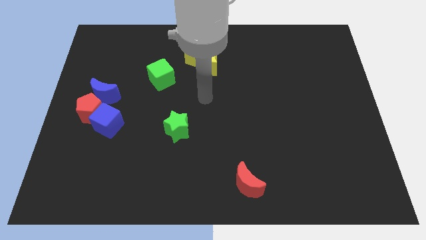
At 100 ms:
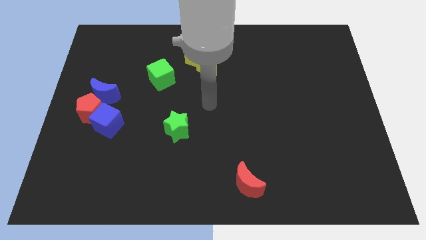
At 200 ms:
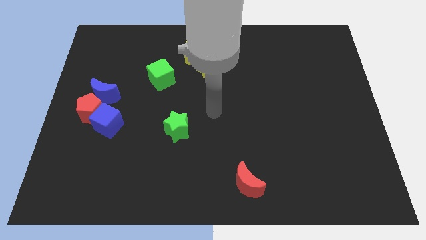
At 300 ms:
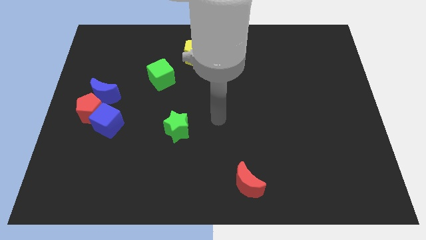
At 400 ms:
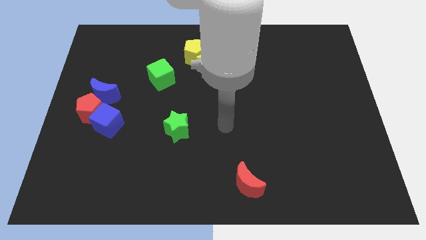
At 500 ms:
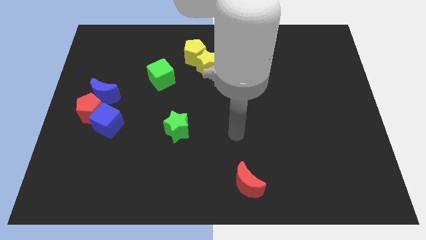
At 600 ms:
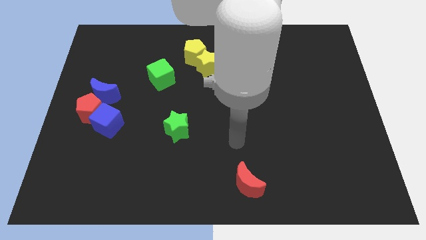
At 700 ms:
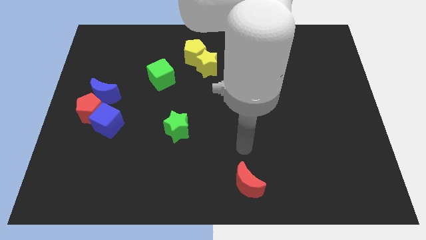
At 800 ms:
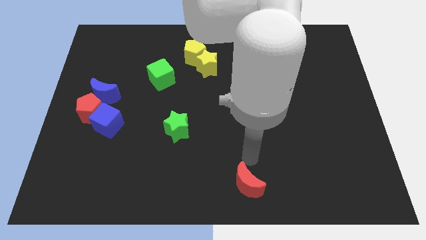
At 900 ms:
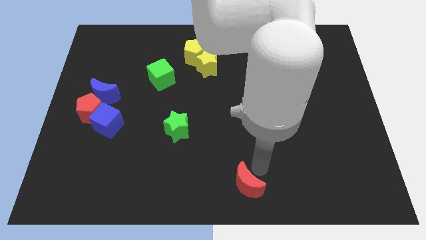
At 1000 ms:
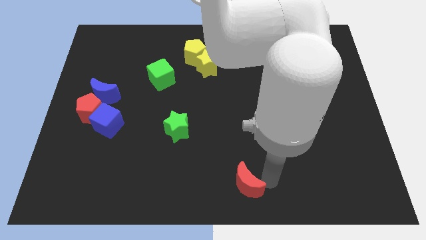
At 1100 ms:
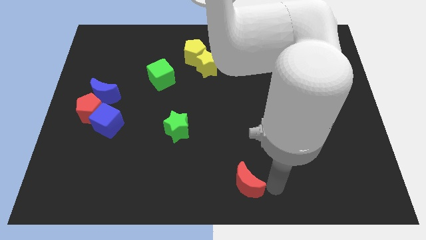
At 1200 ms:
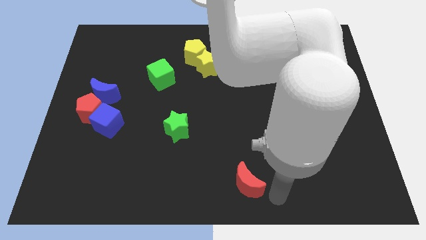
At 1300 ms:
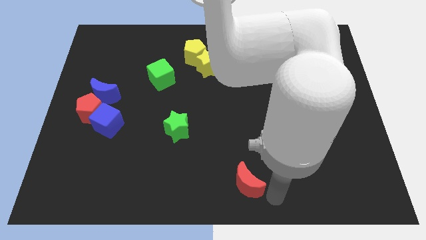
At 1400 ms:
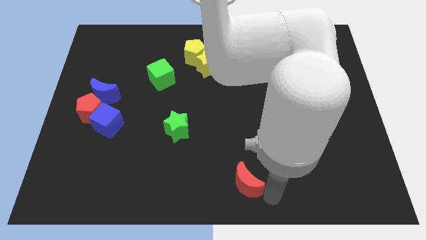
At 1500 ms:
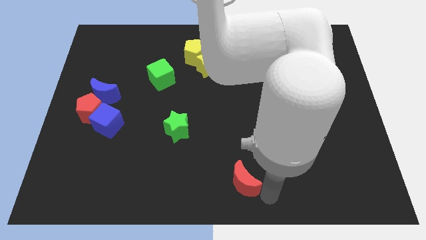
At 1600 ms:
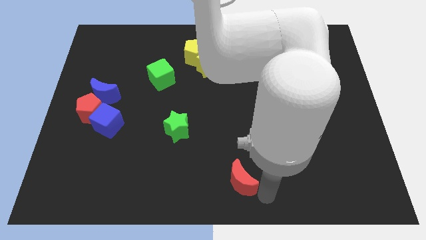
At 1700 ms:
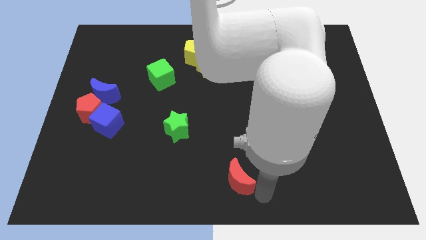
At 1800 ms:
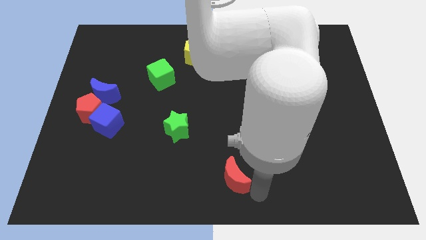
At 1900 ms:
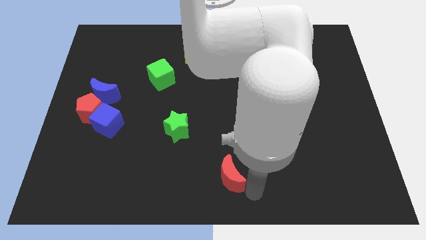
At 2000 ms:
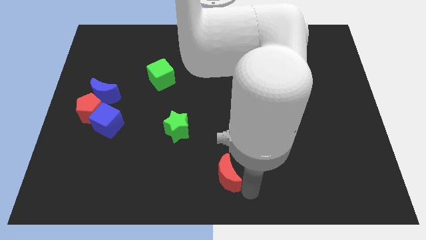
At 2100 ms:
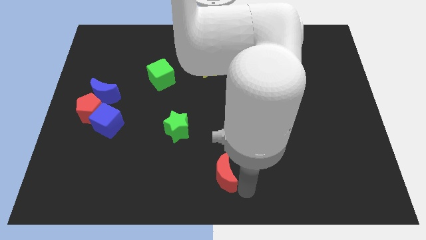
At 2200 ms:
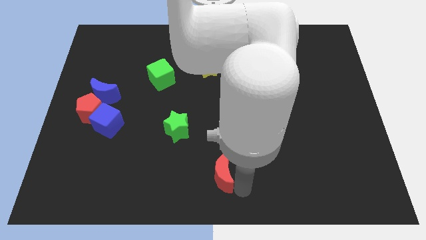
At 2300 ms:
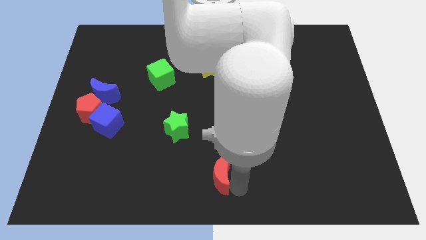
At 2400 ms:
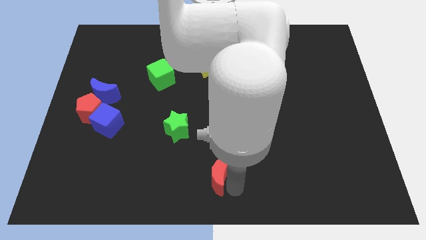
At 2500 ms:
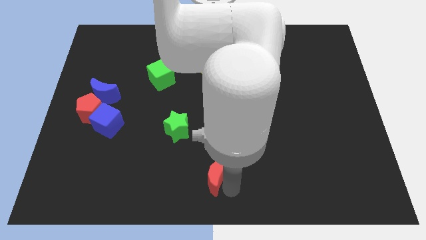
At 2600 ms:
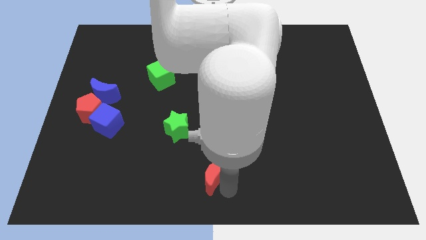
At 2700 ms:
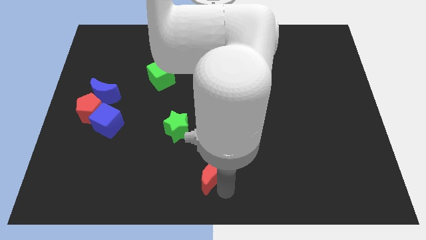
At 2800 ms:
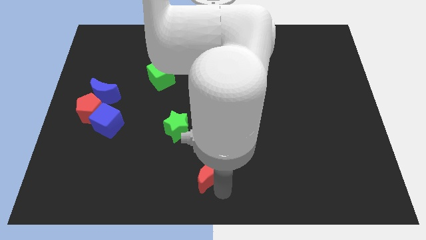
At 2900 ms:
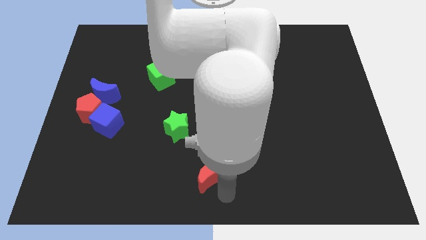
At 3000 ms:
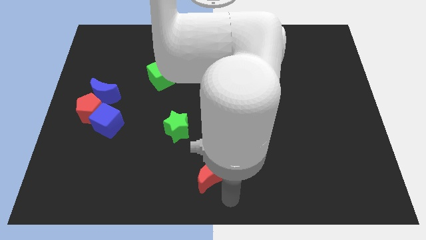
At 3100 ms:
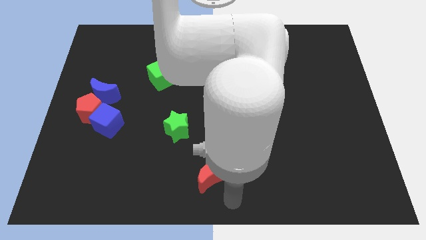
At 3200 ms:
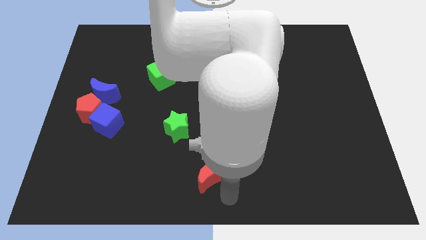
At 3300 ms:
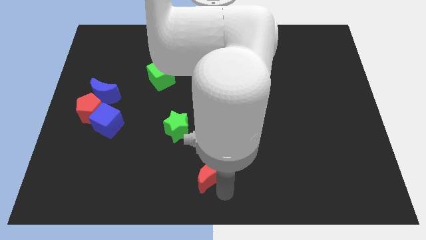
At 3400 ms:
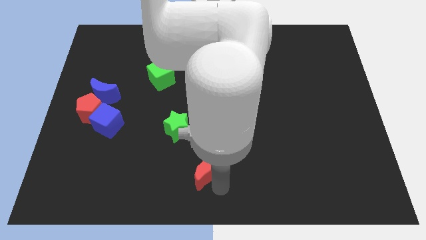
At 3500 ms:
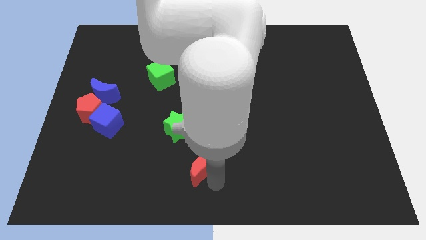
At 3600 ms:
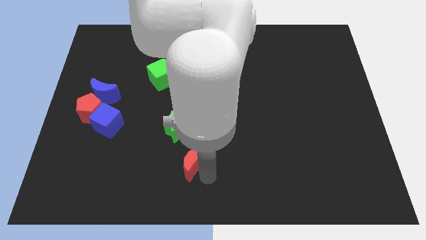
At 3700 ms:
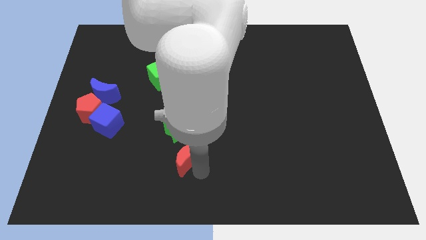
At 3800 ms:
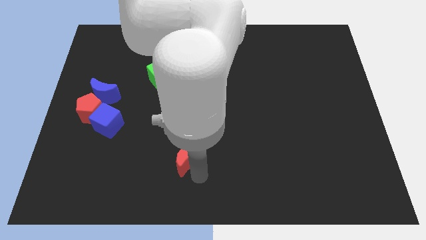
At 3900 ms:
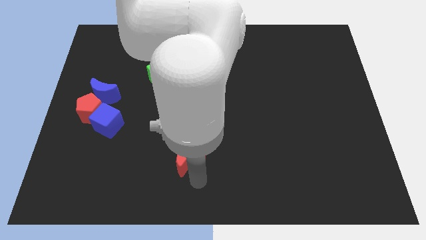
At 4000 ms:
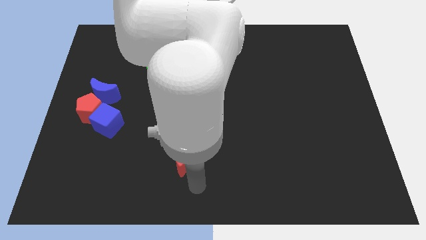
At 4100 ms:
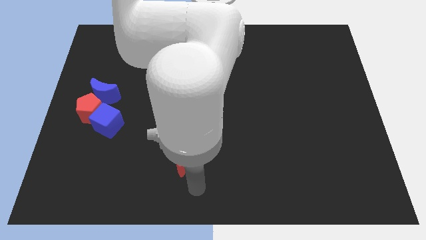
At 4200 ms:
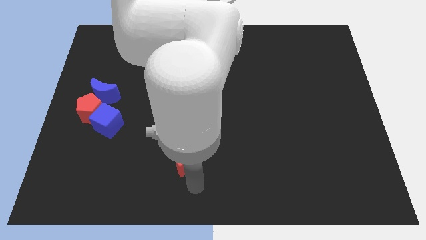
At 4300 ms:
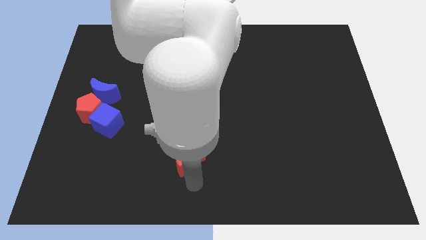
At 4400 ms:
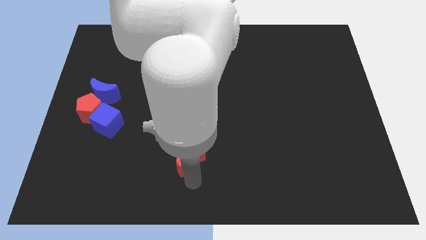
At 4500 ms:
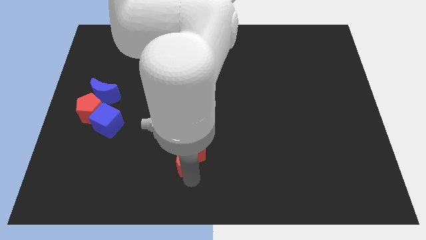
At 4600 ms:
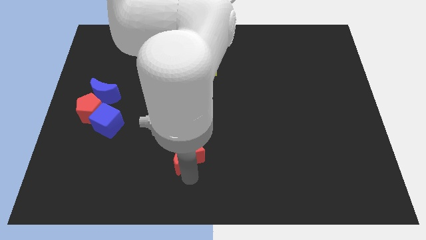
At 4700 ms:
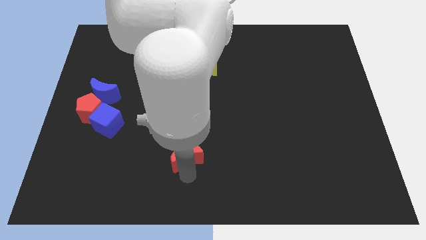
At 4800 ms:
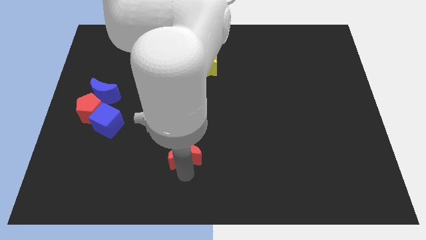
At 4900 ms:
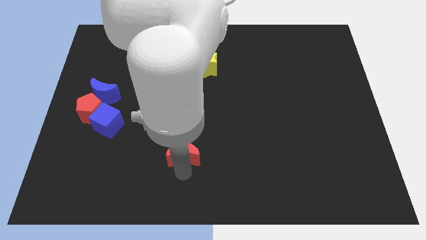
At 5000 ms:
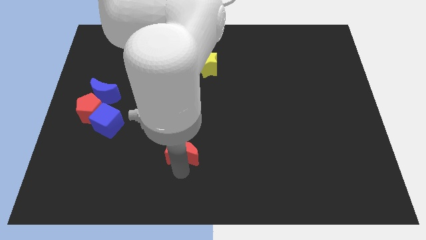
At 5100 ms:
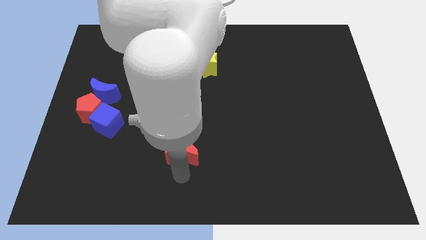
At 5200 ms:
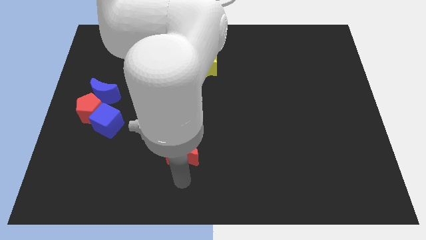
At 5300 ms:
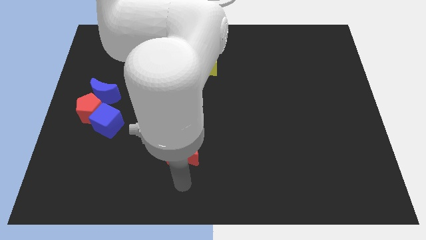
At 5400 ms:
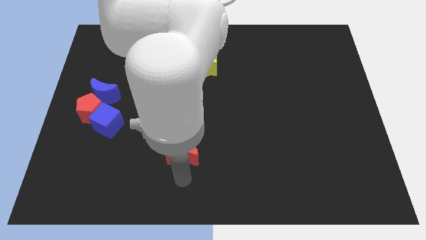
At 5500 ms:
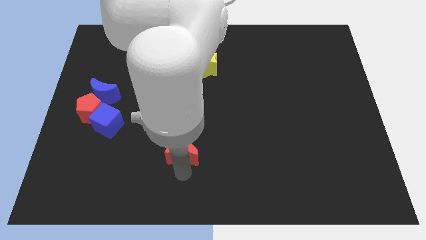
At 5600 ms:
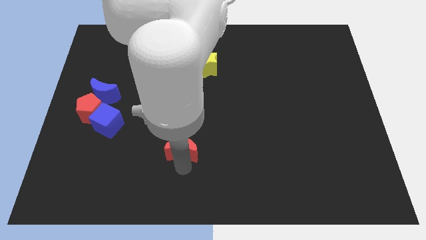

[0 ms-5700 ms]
put the red moon close to the green star

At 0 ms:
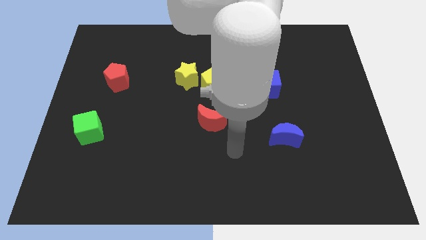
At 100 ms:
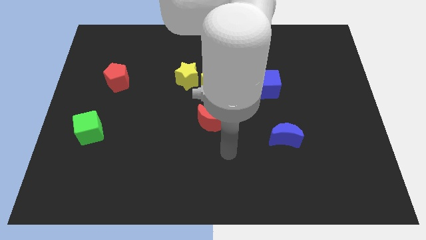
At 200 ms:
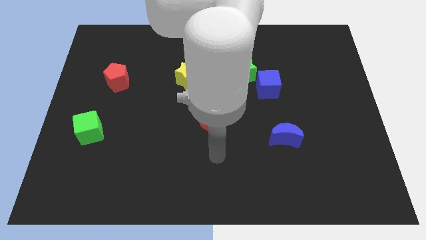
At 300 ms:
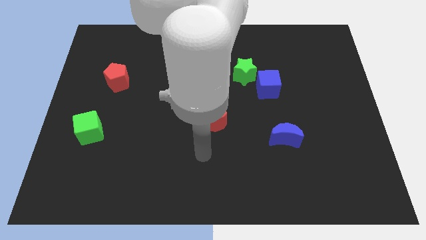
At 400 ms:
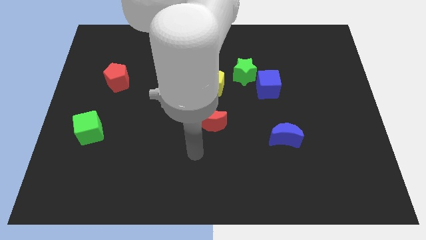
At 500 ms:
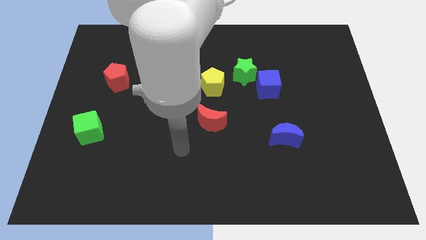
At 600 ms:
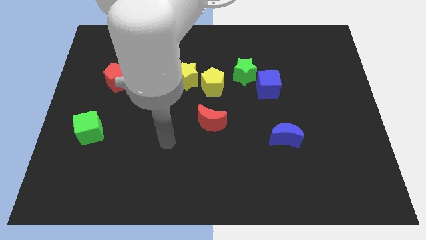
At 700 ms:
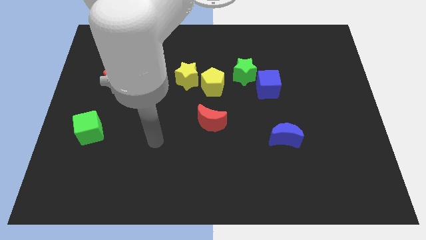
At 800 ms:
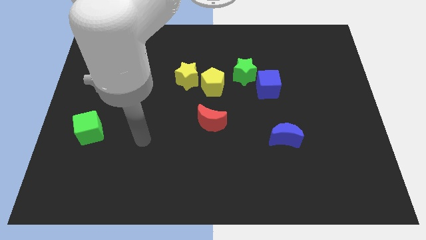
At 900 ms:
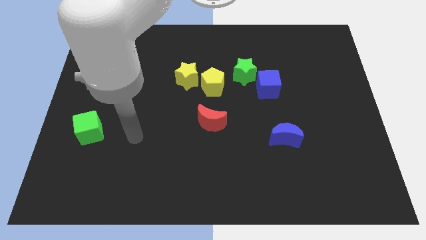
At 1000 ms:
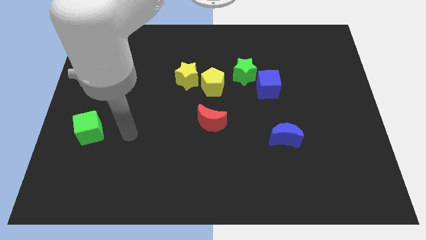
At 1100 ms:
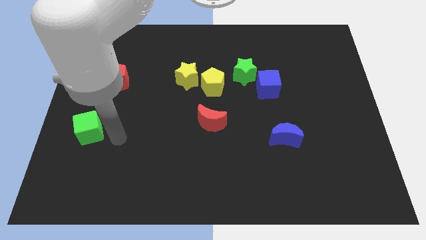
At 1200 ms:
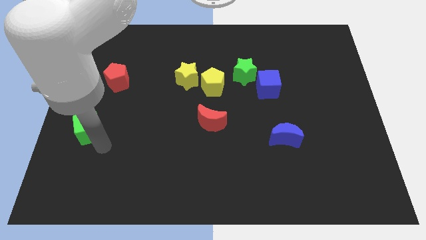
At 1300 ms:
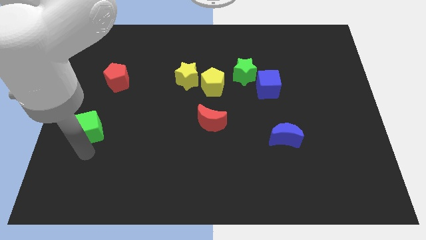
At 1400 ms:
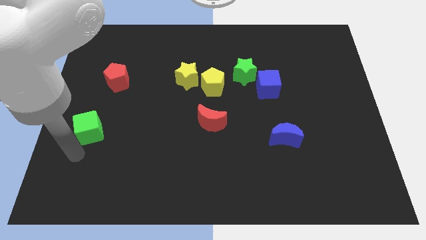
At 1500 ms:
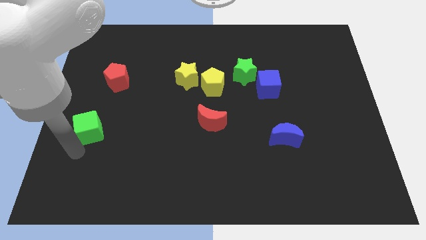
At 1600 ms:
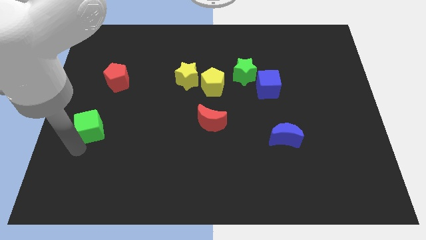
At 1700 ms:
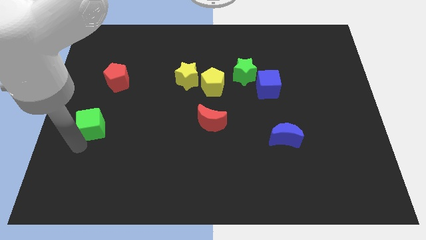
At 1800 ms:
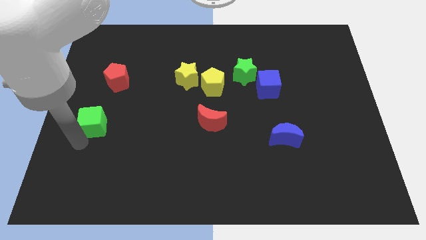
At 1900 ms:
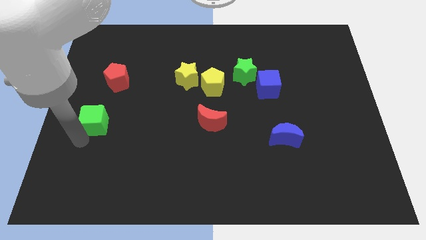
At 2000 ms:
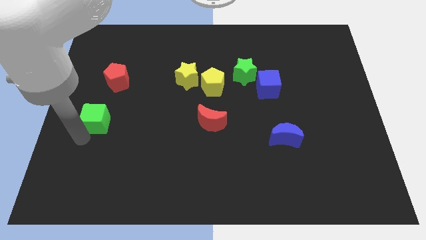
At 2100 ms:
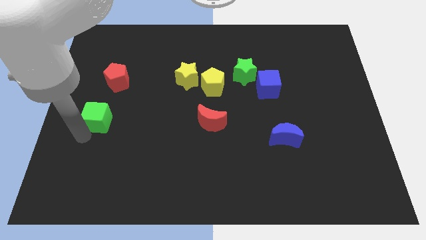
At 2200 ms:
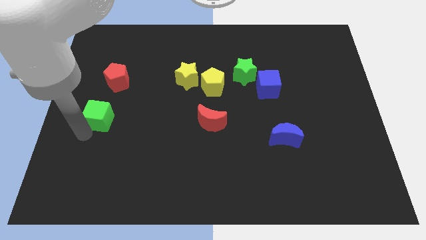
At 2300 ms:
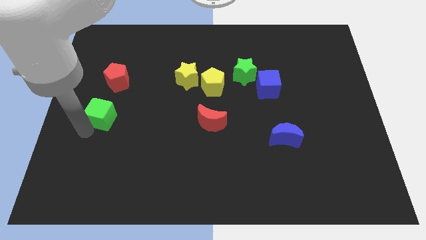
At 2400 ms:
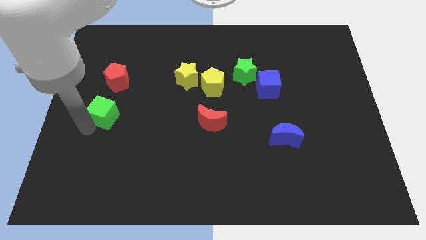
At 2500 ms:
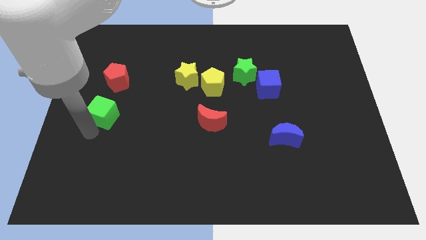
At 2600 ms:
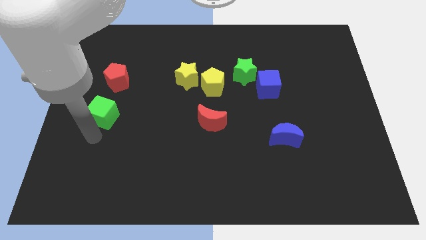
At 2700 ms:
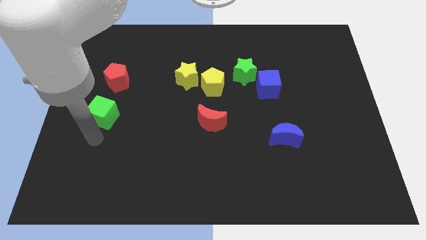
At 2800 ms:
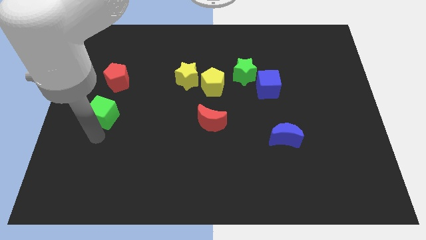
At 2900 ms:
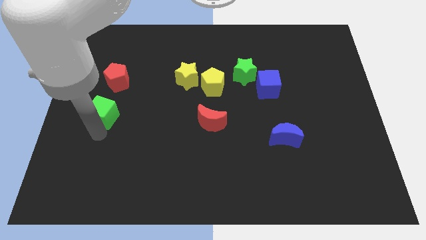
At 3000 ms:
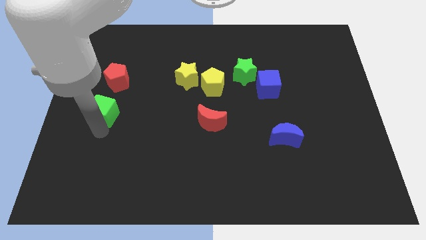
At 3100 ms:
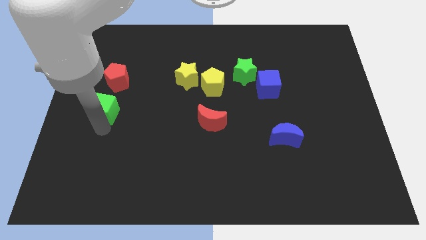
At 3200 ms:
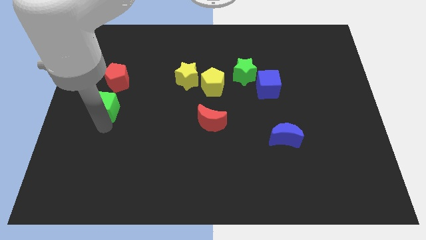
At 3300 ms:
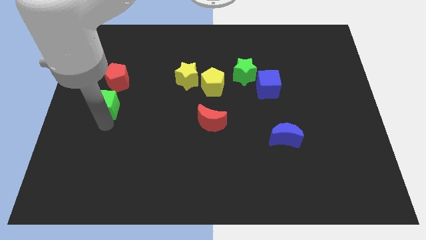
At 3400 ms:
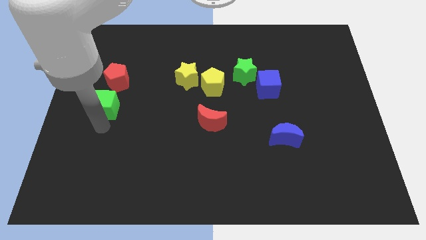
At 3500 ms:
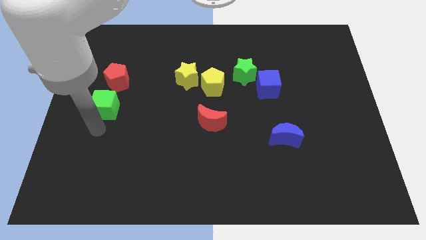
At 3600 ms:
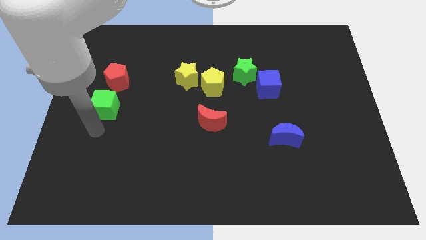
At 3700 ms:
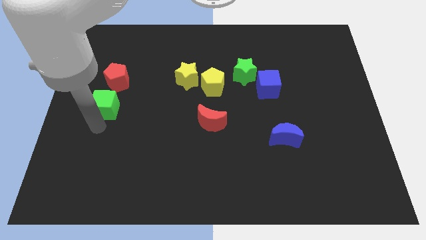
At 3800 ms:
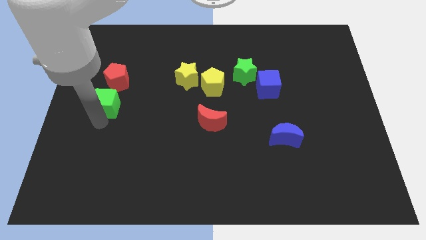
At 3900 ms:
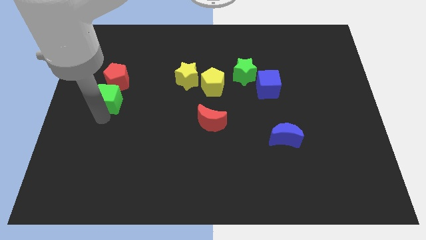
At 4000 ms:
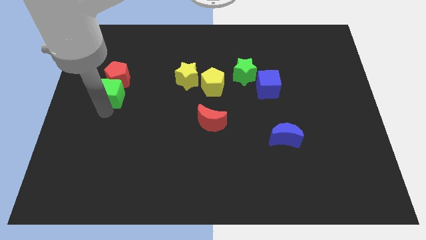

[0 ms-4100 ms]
put the green cube to the red pentagon
